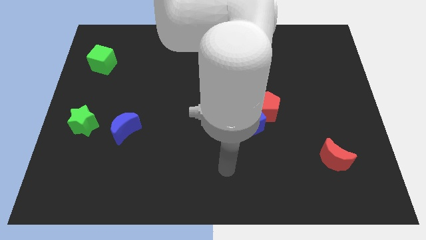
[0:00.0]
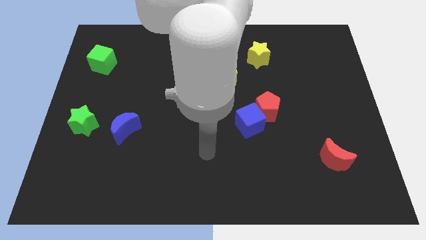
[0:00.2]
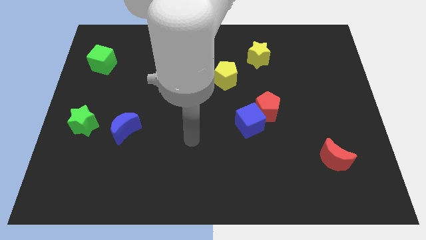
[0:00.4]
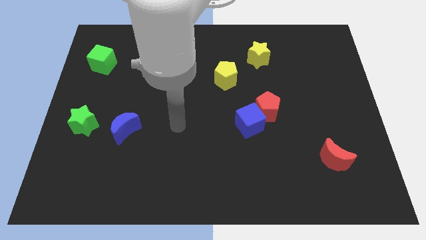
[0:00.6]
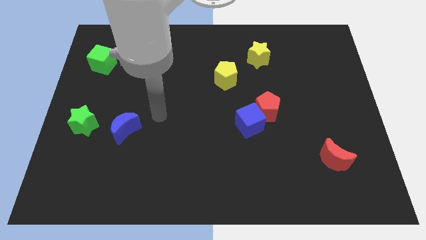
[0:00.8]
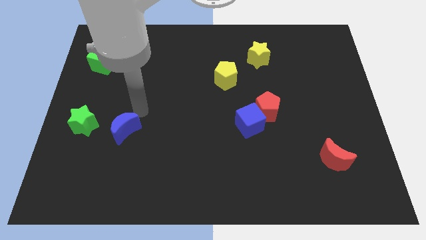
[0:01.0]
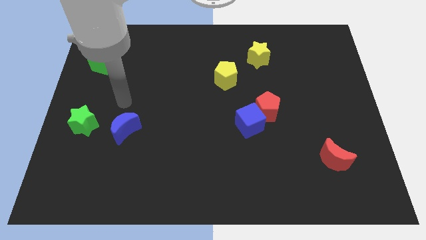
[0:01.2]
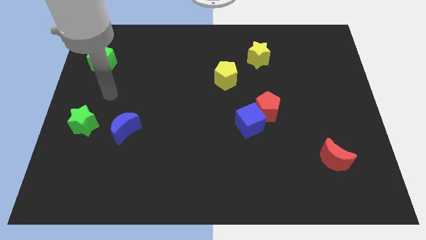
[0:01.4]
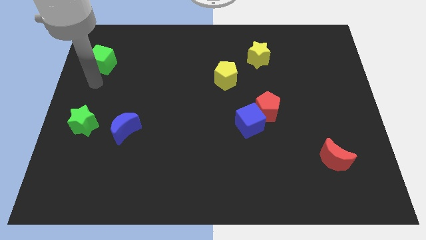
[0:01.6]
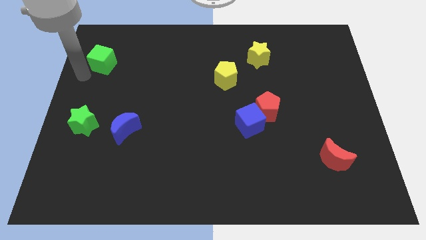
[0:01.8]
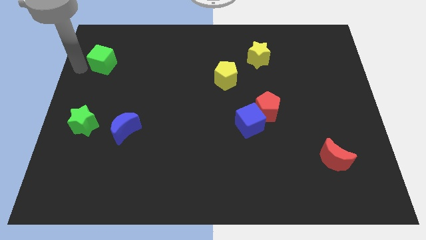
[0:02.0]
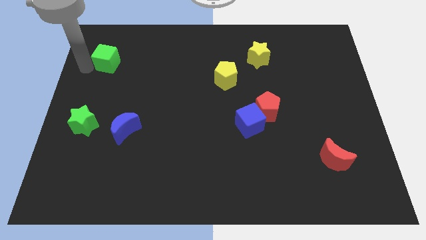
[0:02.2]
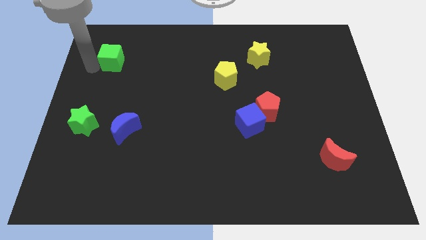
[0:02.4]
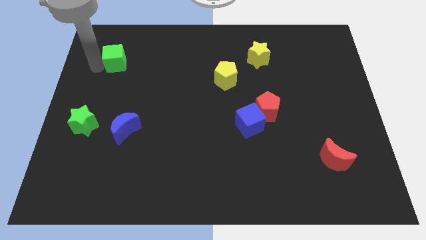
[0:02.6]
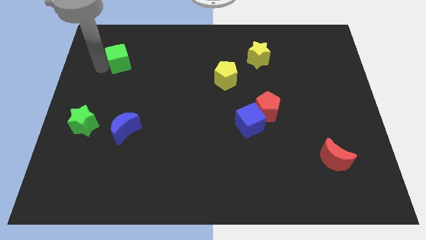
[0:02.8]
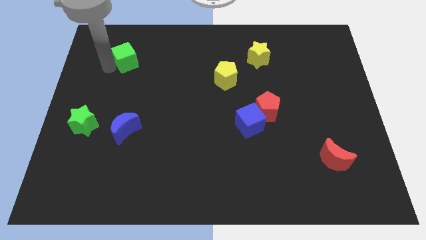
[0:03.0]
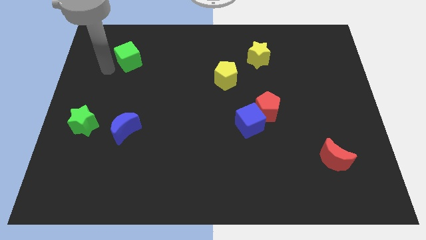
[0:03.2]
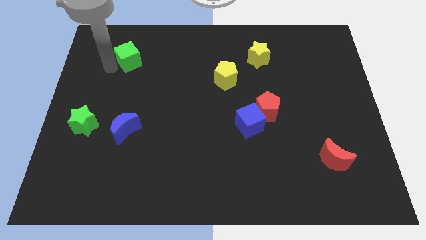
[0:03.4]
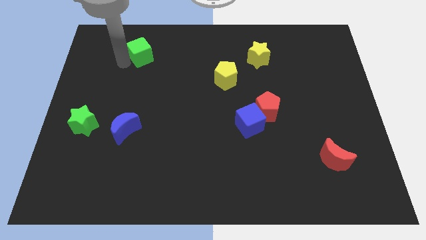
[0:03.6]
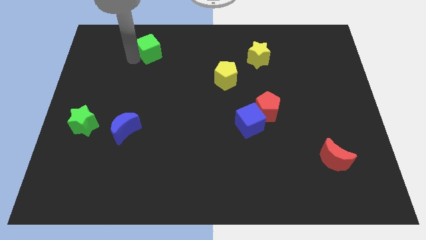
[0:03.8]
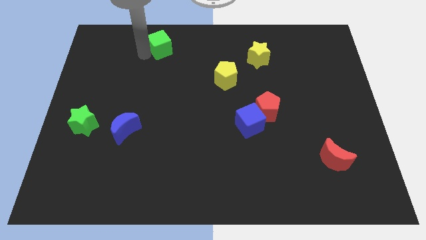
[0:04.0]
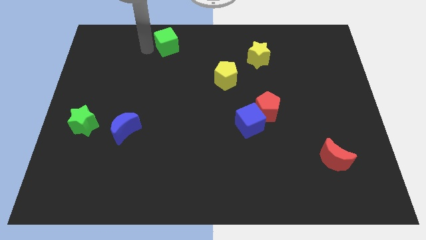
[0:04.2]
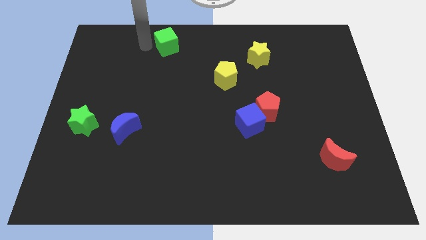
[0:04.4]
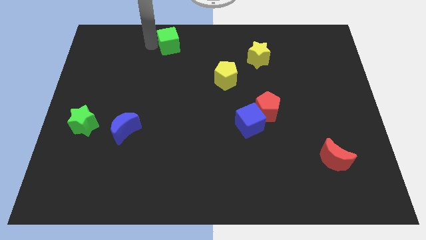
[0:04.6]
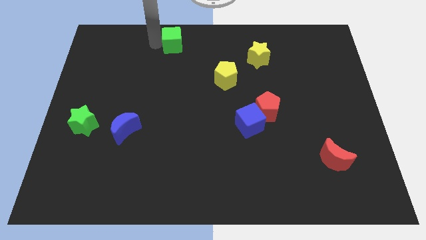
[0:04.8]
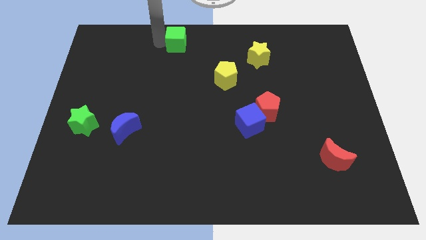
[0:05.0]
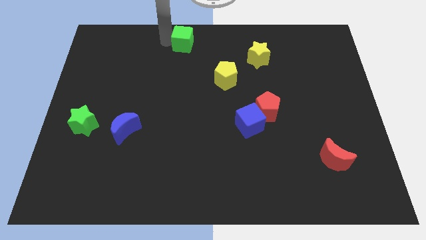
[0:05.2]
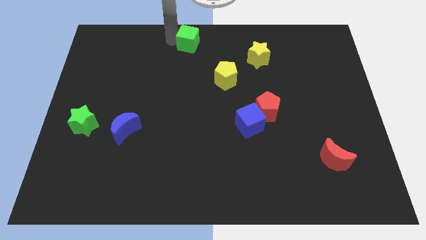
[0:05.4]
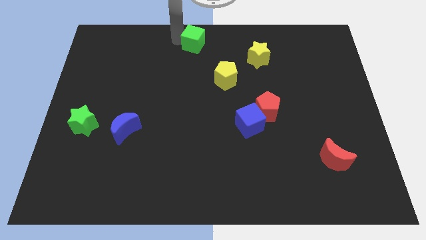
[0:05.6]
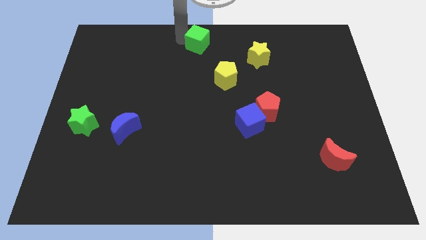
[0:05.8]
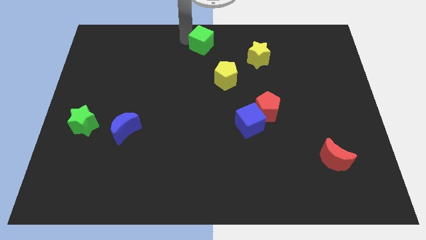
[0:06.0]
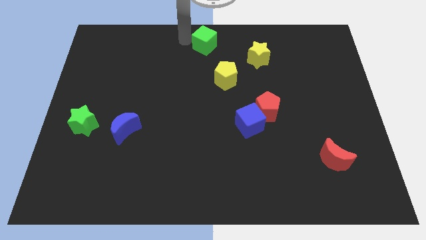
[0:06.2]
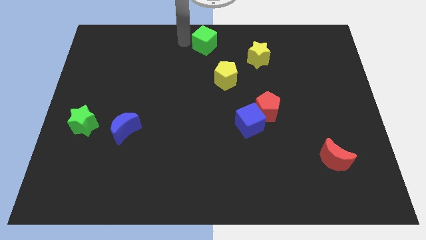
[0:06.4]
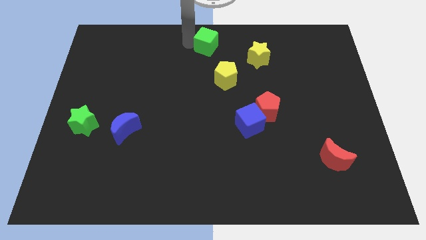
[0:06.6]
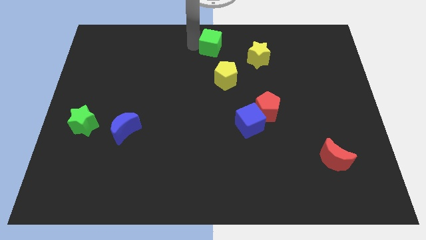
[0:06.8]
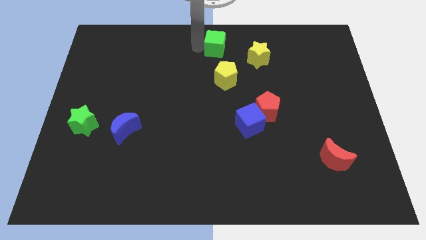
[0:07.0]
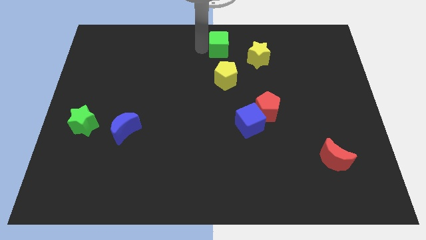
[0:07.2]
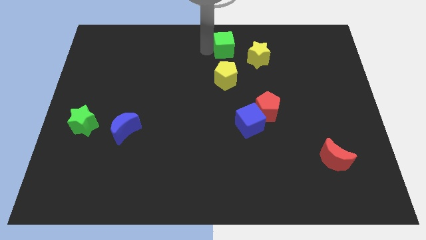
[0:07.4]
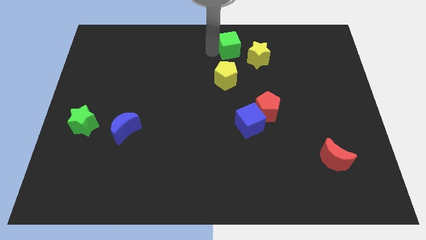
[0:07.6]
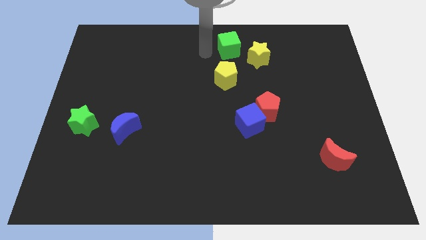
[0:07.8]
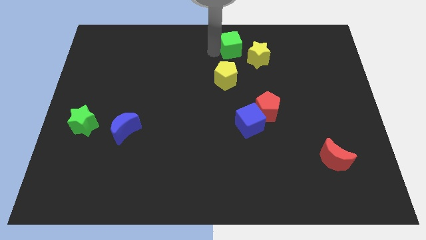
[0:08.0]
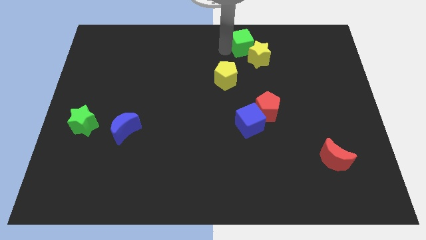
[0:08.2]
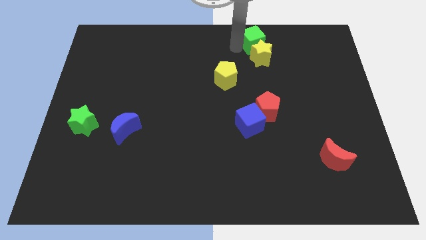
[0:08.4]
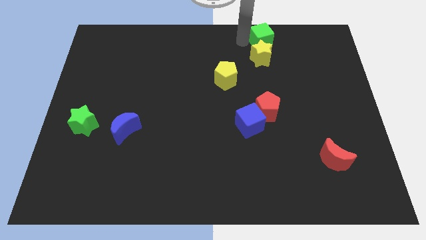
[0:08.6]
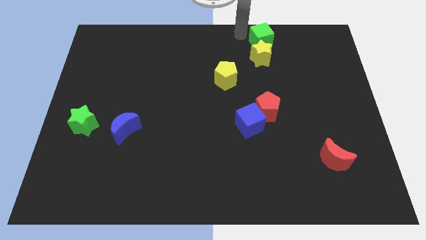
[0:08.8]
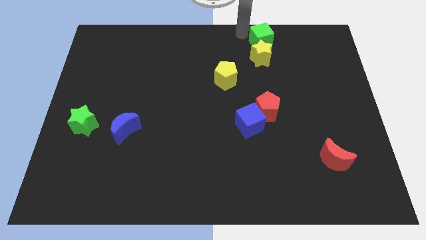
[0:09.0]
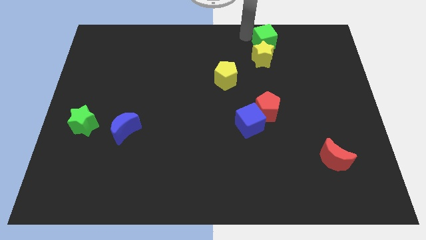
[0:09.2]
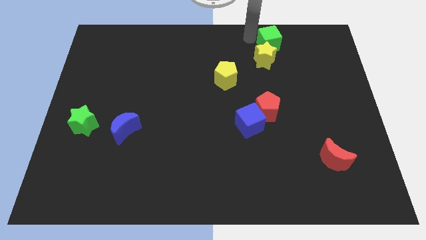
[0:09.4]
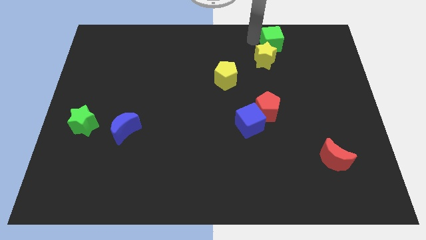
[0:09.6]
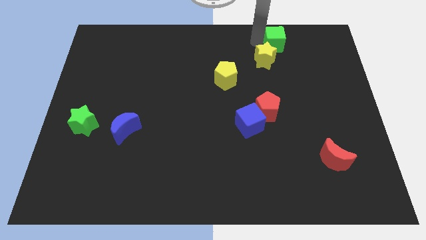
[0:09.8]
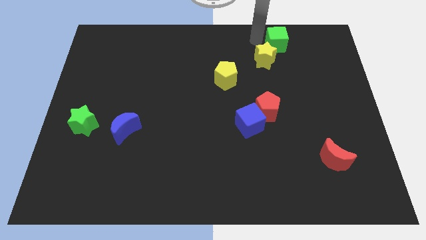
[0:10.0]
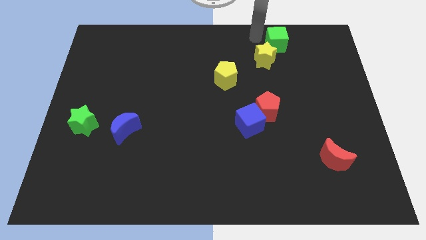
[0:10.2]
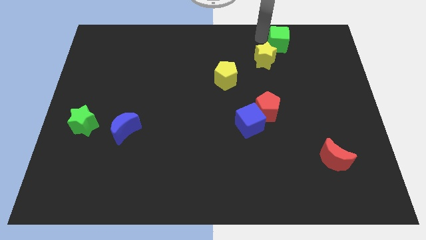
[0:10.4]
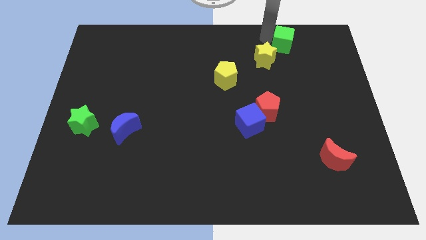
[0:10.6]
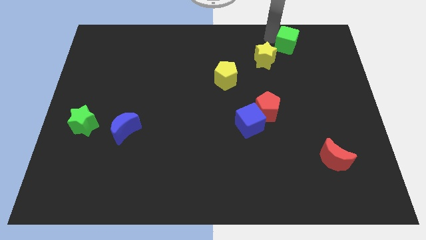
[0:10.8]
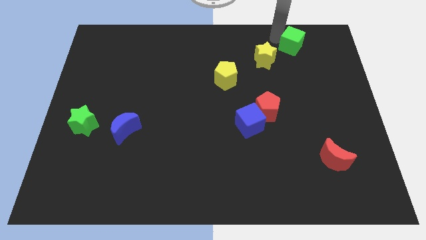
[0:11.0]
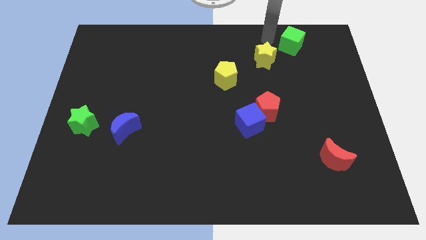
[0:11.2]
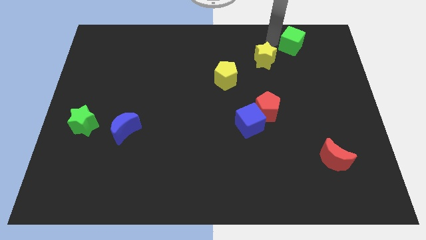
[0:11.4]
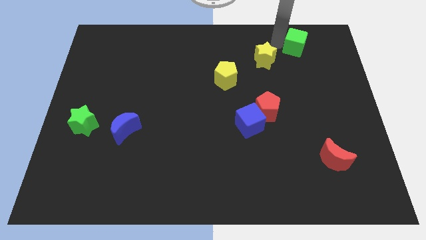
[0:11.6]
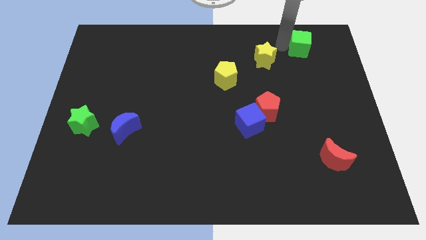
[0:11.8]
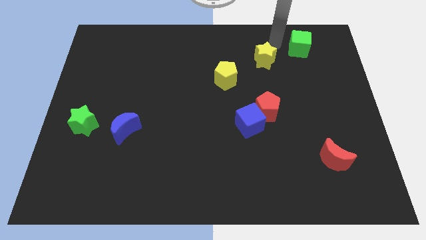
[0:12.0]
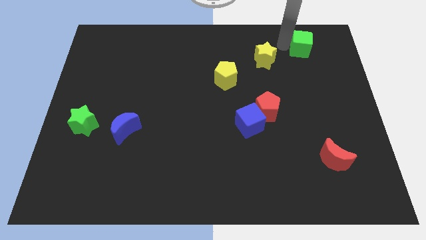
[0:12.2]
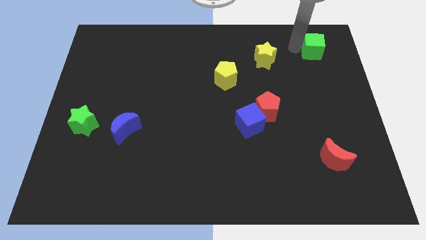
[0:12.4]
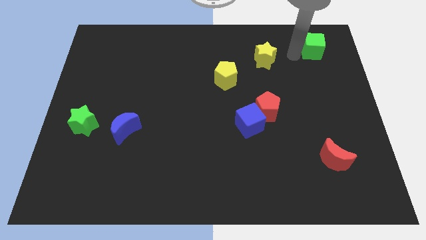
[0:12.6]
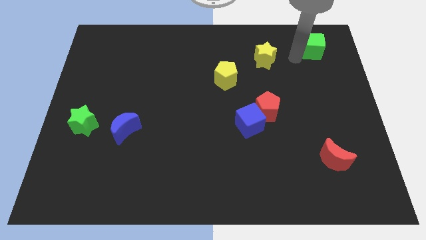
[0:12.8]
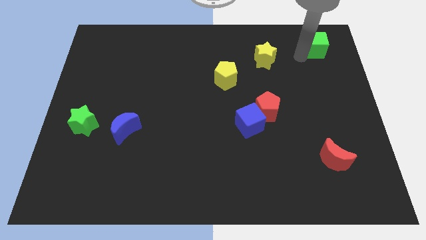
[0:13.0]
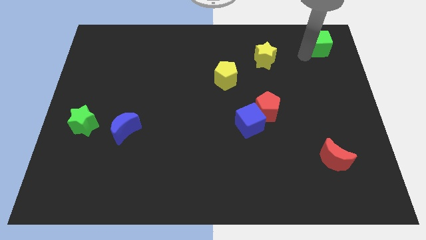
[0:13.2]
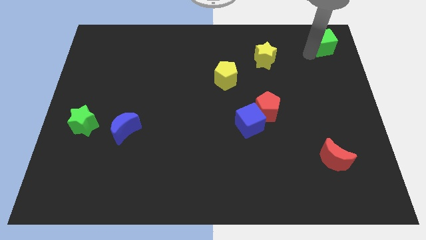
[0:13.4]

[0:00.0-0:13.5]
move the green cube to the top right corner

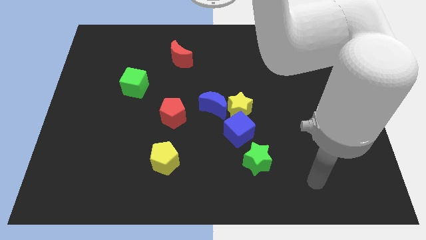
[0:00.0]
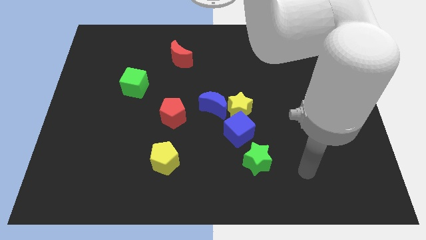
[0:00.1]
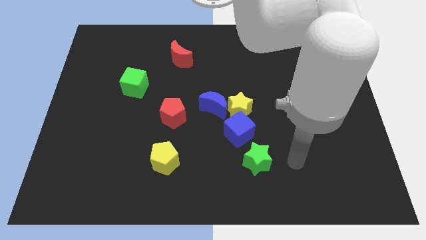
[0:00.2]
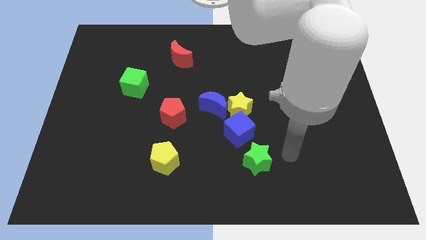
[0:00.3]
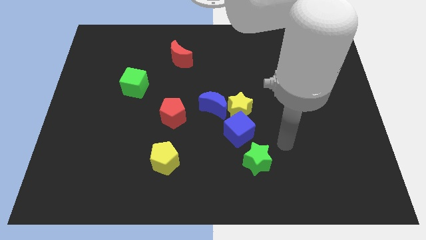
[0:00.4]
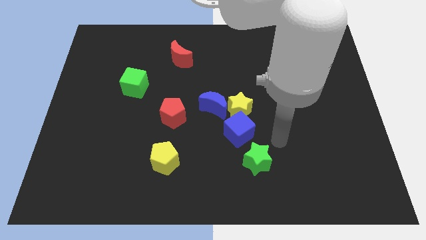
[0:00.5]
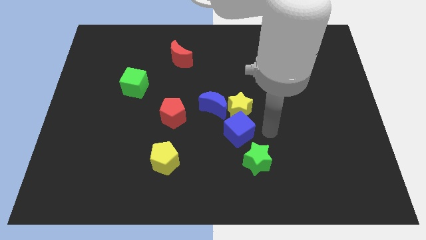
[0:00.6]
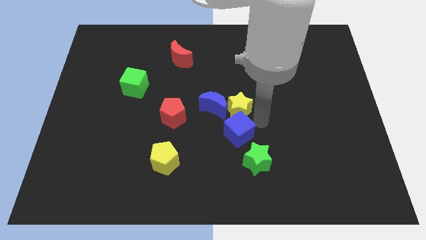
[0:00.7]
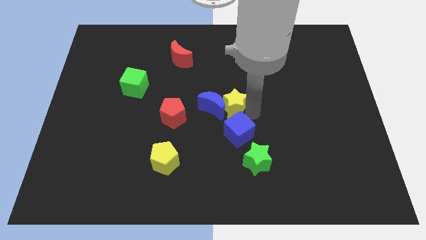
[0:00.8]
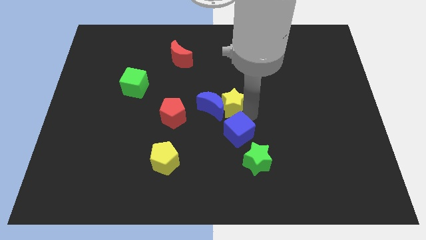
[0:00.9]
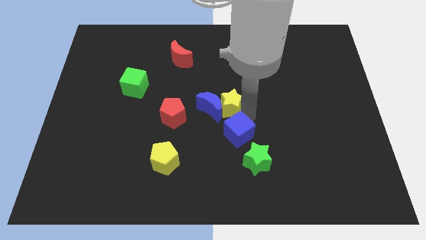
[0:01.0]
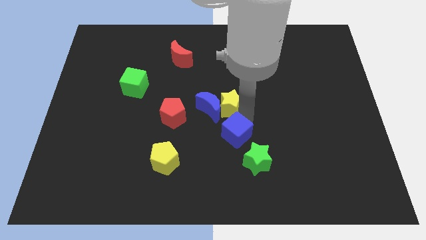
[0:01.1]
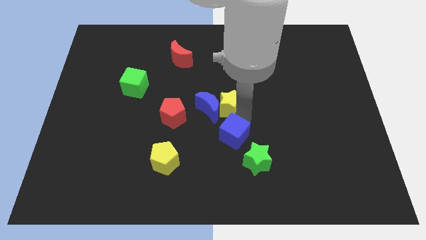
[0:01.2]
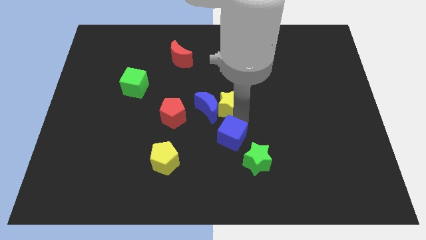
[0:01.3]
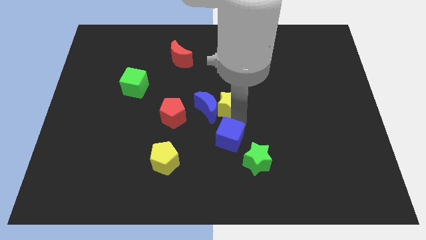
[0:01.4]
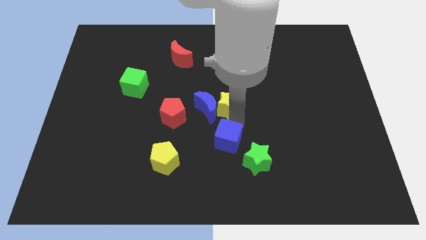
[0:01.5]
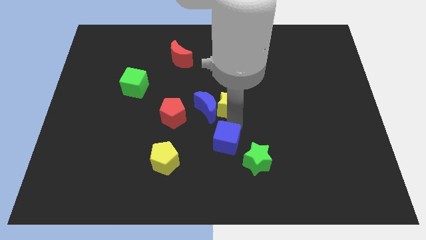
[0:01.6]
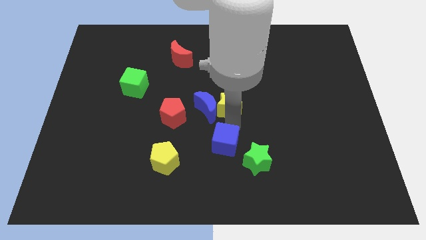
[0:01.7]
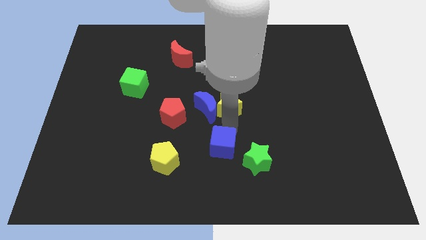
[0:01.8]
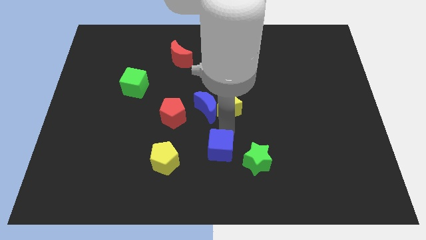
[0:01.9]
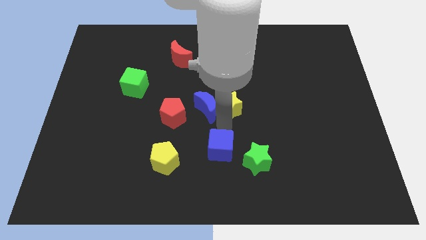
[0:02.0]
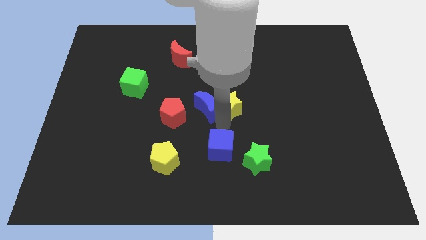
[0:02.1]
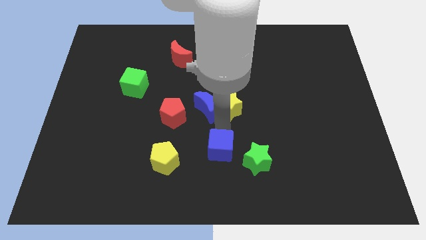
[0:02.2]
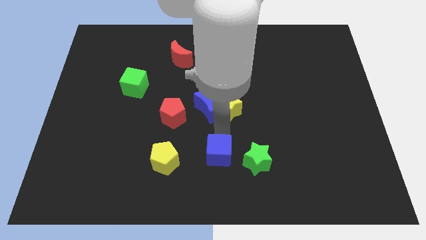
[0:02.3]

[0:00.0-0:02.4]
push the blue cube to the bottom side
